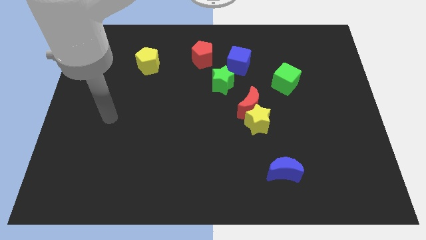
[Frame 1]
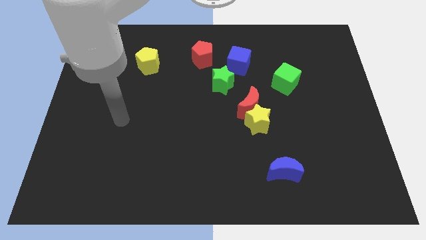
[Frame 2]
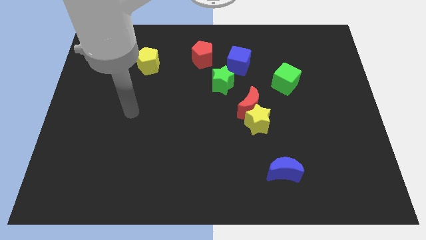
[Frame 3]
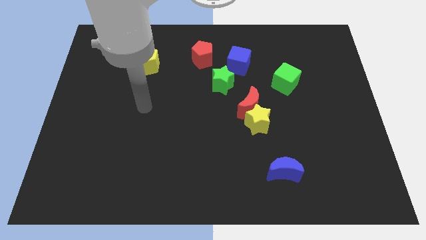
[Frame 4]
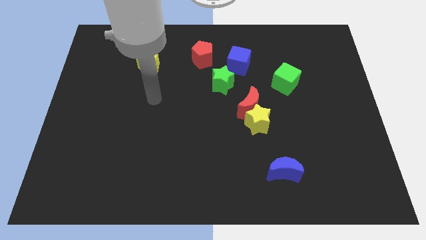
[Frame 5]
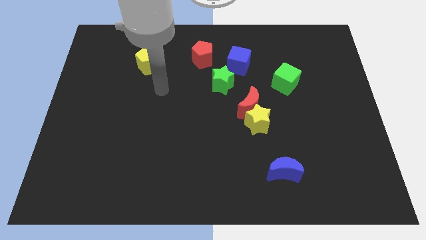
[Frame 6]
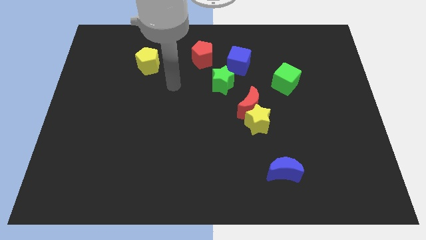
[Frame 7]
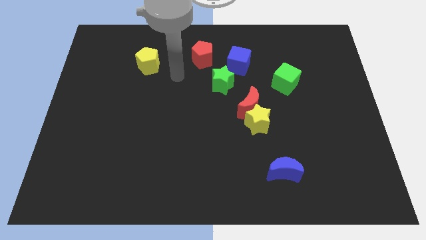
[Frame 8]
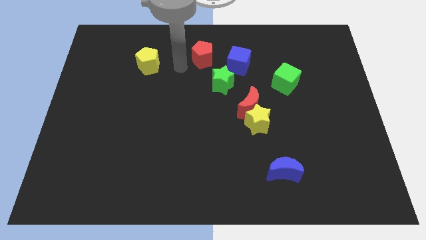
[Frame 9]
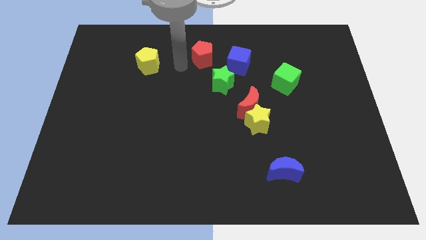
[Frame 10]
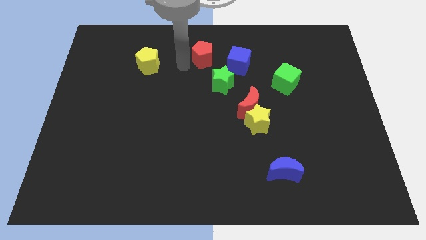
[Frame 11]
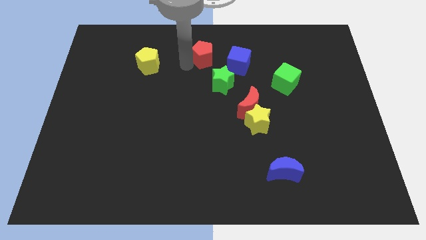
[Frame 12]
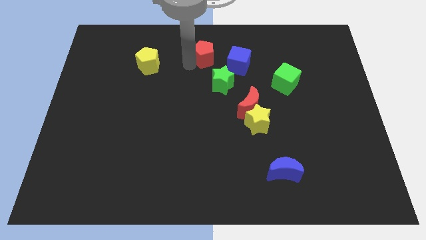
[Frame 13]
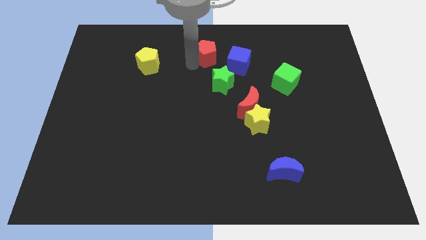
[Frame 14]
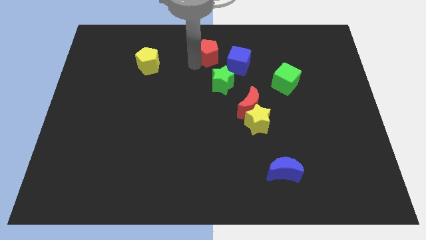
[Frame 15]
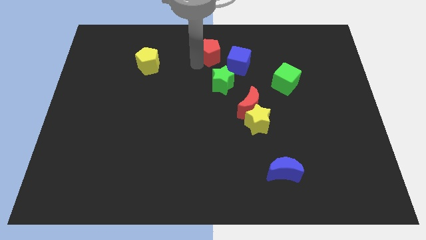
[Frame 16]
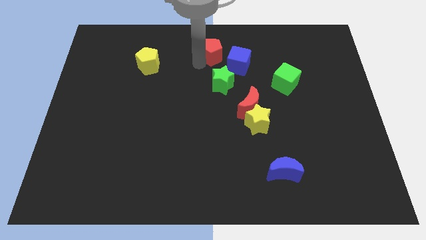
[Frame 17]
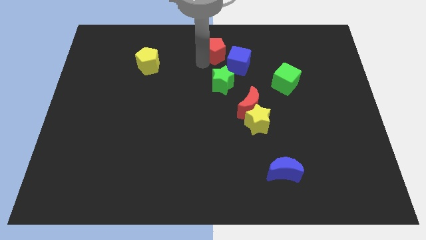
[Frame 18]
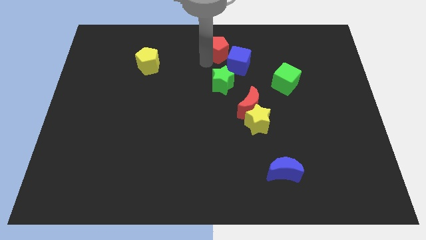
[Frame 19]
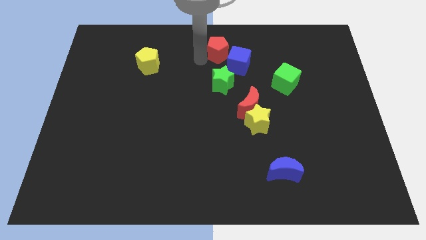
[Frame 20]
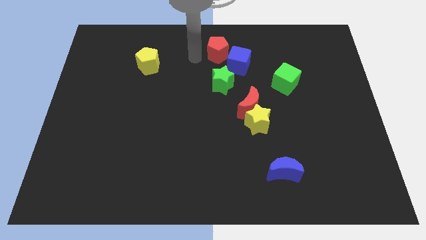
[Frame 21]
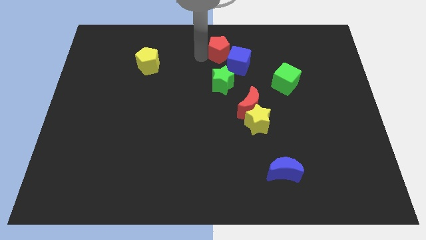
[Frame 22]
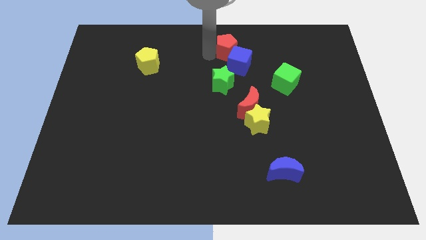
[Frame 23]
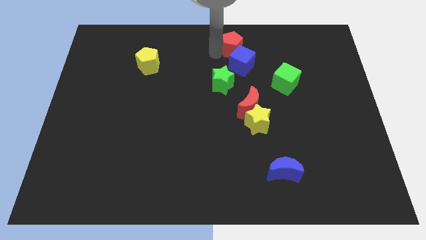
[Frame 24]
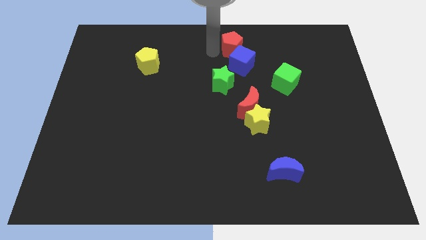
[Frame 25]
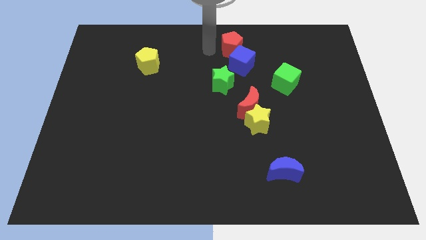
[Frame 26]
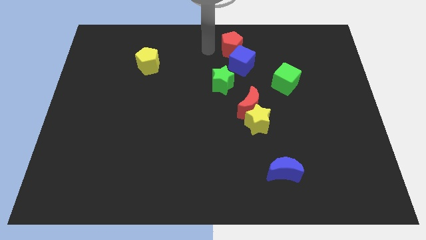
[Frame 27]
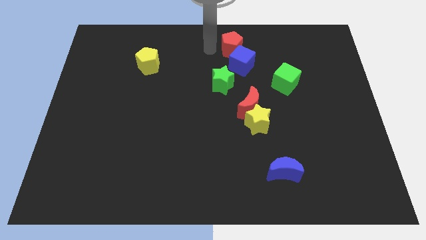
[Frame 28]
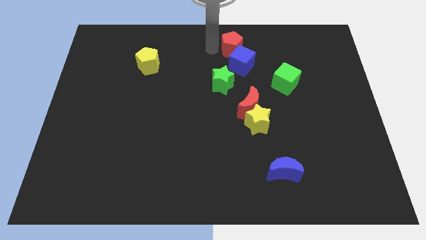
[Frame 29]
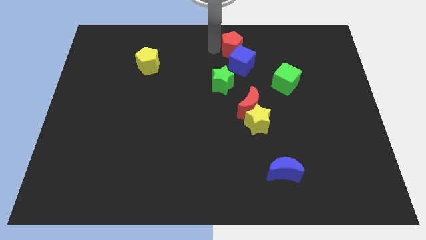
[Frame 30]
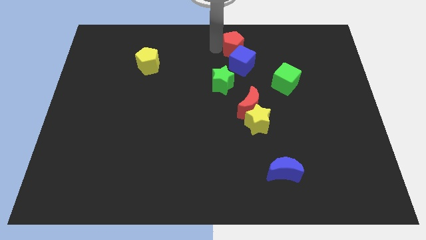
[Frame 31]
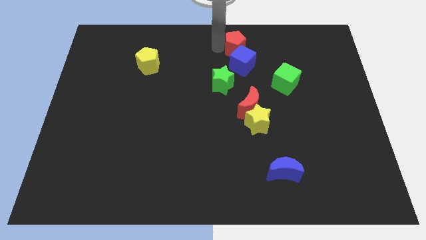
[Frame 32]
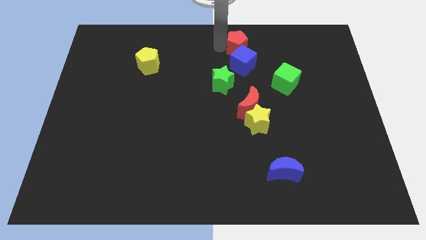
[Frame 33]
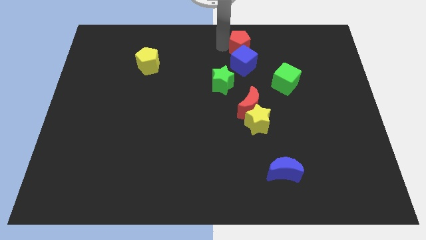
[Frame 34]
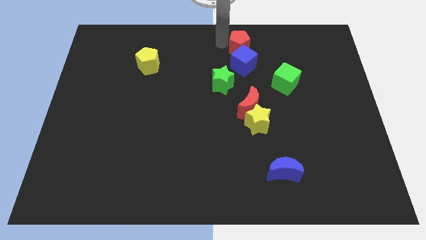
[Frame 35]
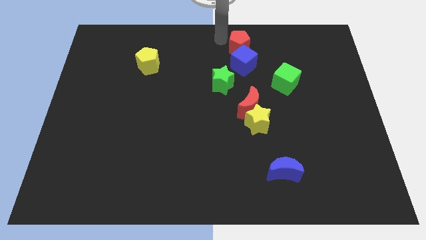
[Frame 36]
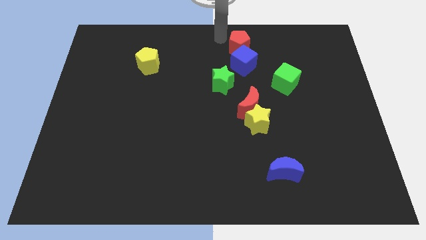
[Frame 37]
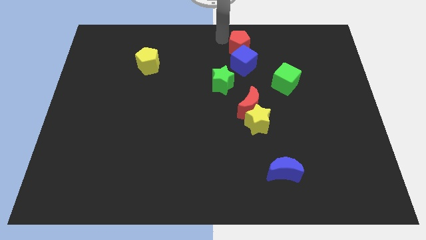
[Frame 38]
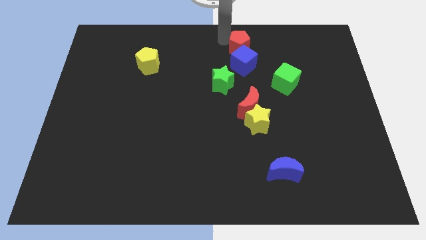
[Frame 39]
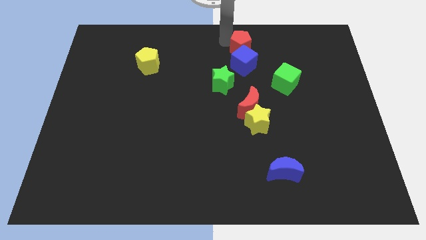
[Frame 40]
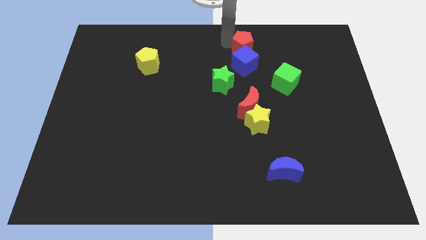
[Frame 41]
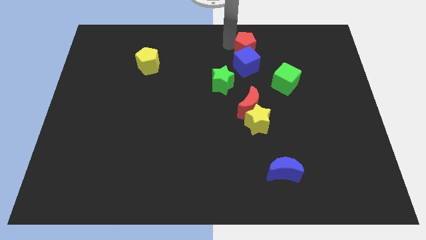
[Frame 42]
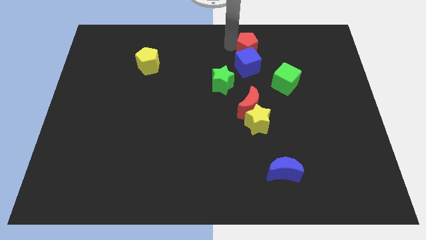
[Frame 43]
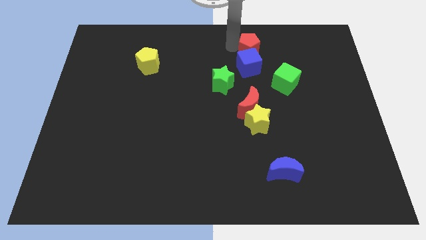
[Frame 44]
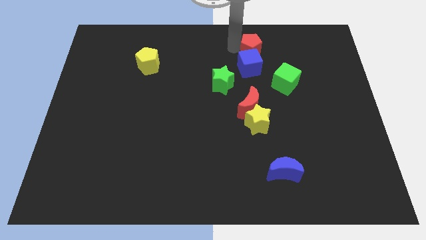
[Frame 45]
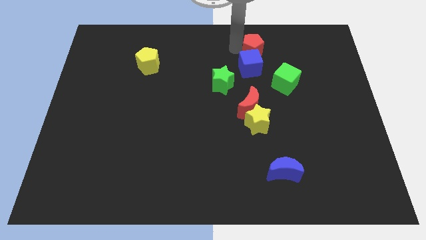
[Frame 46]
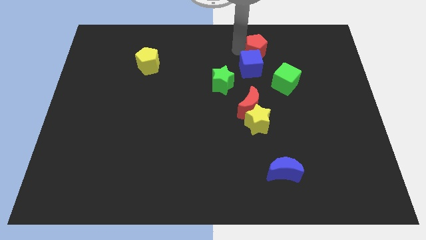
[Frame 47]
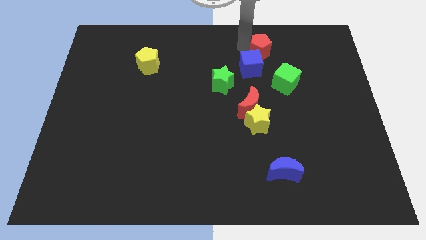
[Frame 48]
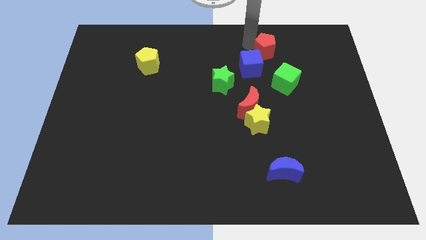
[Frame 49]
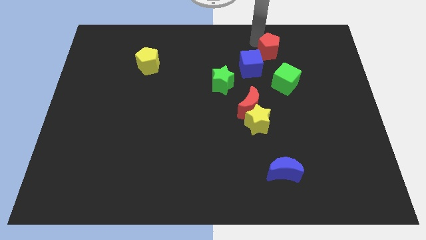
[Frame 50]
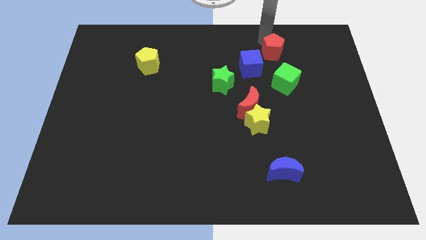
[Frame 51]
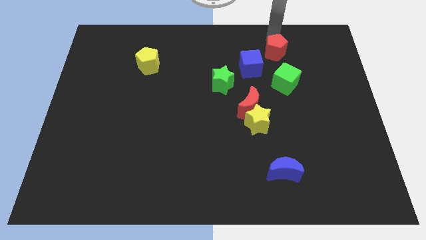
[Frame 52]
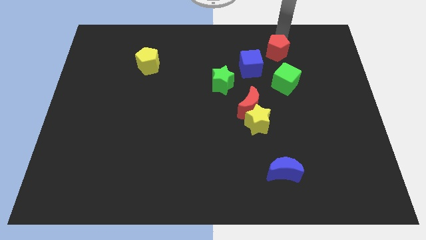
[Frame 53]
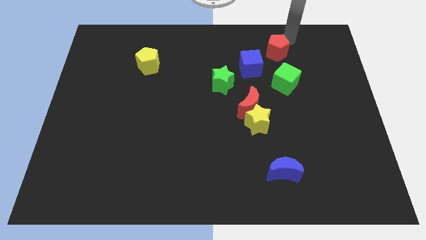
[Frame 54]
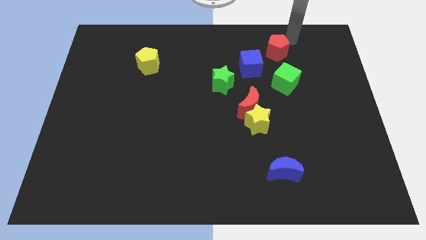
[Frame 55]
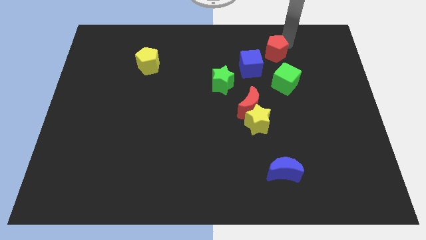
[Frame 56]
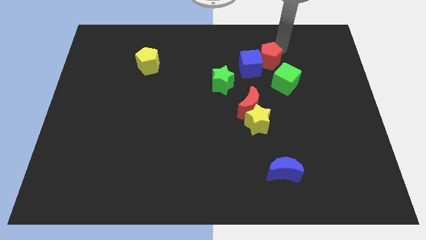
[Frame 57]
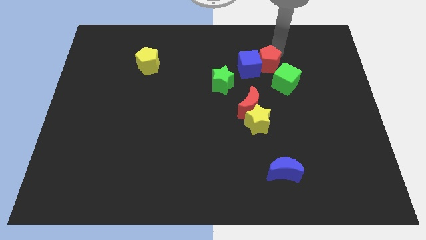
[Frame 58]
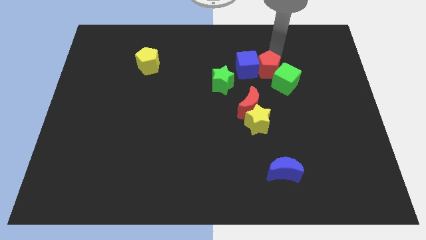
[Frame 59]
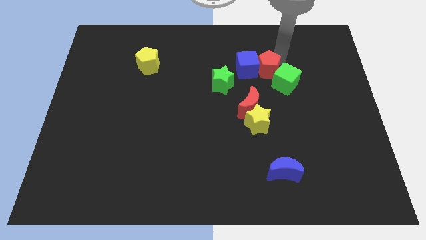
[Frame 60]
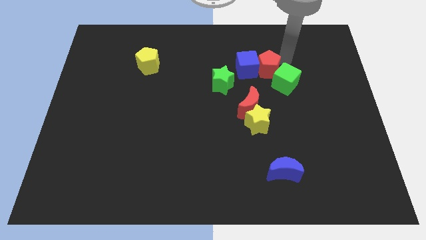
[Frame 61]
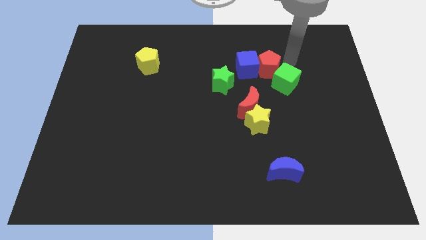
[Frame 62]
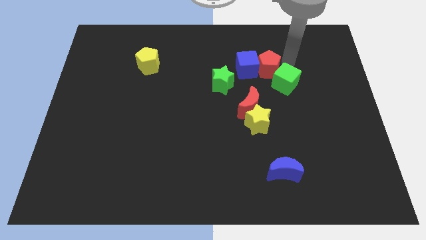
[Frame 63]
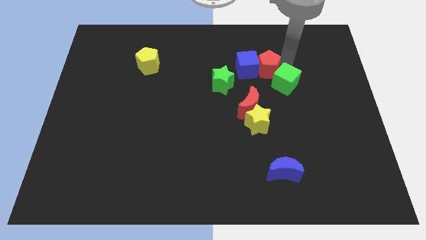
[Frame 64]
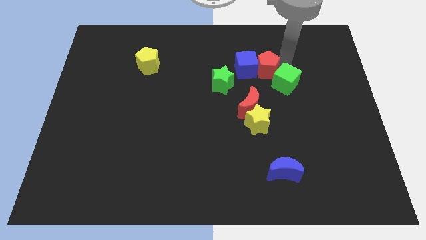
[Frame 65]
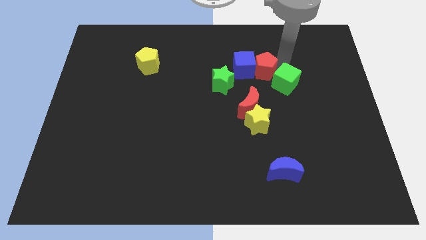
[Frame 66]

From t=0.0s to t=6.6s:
slide the red pentagon above the red moon

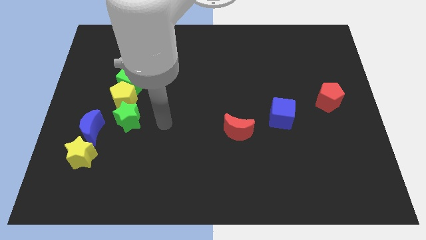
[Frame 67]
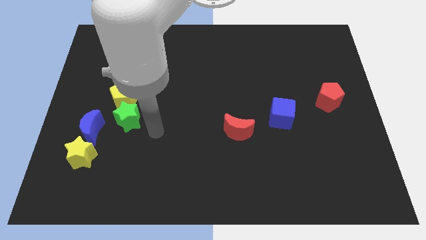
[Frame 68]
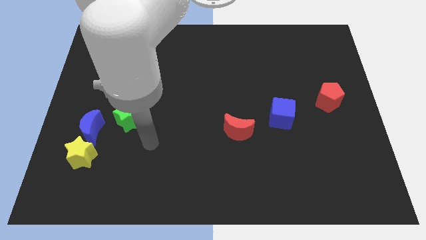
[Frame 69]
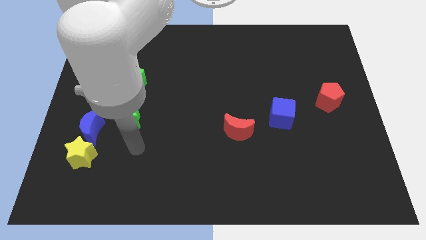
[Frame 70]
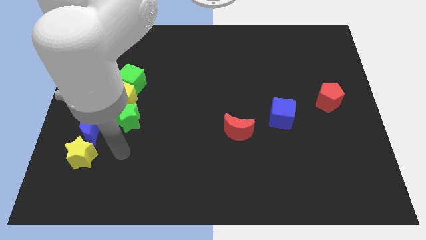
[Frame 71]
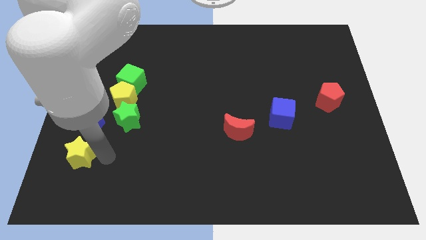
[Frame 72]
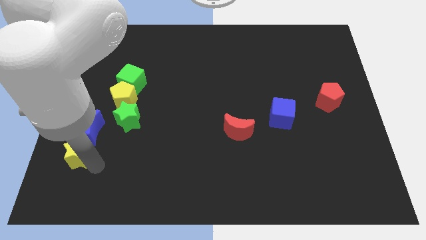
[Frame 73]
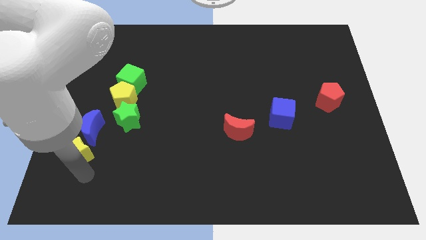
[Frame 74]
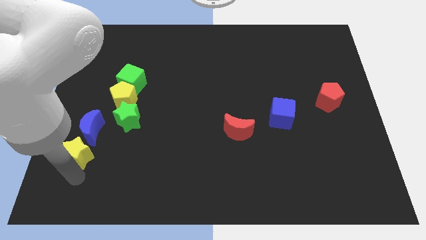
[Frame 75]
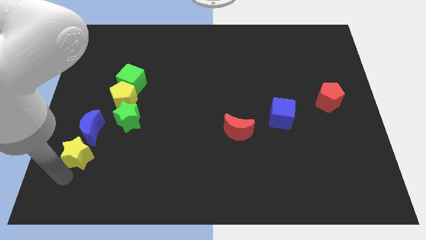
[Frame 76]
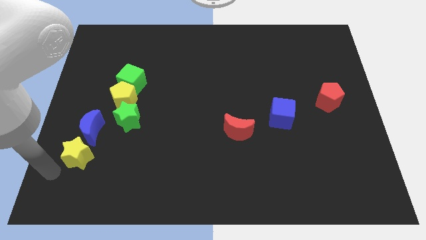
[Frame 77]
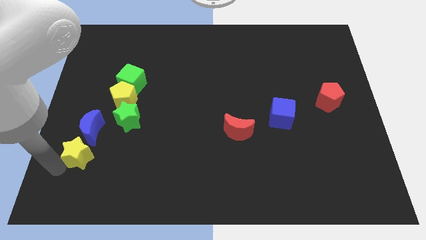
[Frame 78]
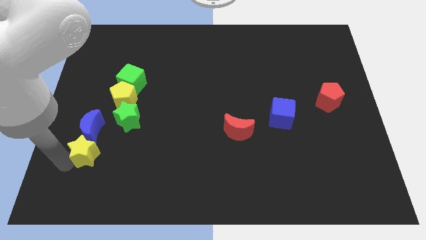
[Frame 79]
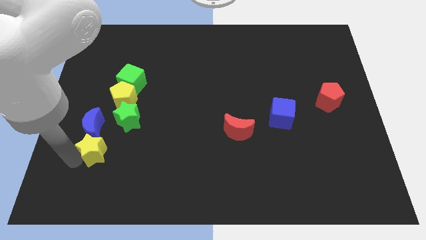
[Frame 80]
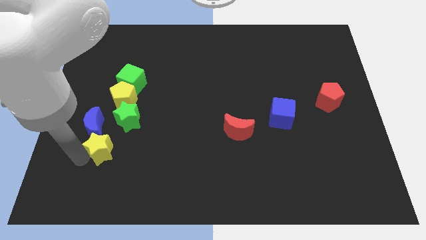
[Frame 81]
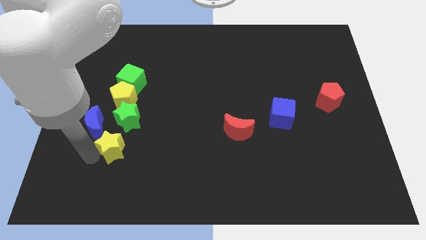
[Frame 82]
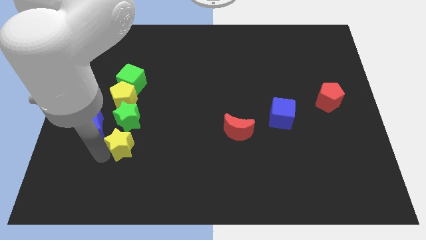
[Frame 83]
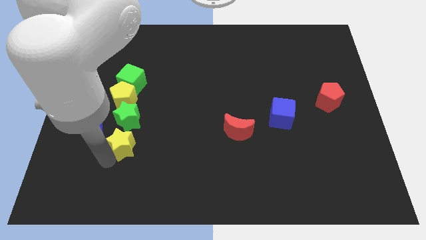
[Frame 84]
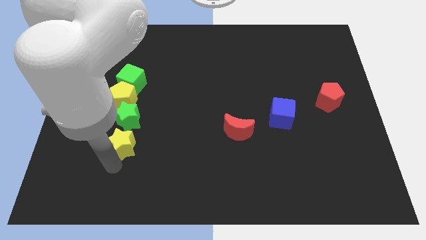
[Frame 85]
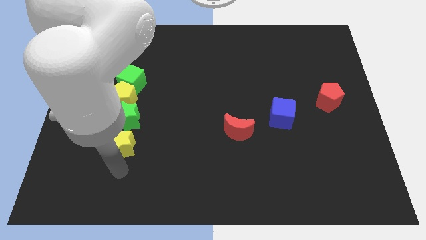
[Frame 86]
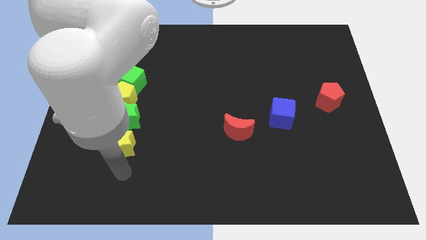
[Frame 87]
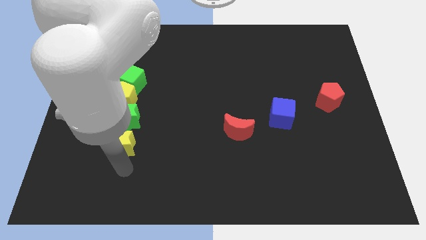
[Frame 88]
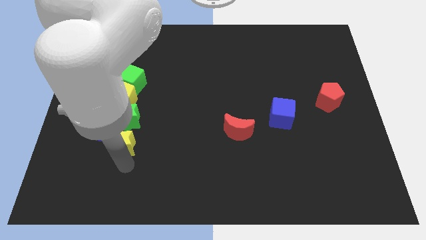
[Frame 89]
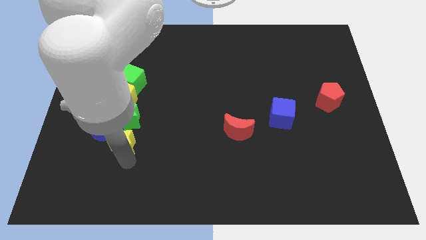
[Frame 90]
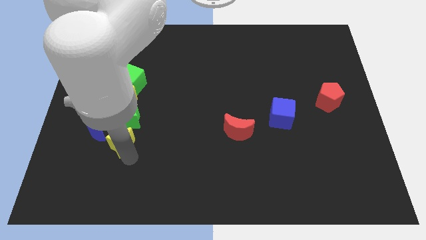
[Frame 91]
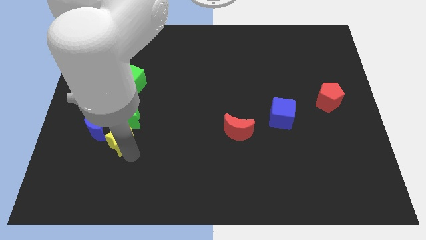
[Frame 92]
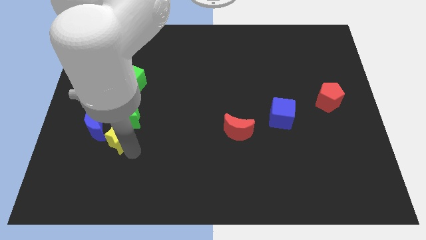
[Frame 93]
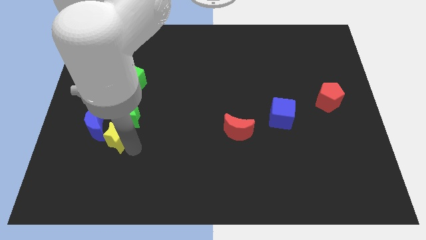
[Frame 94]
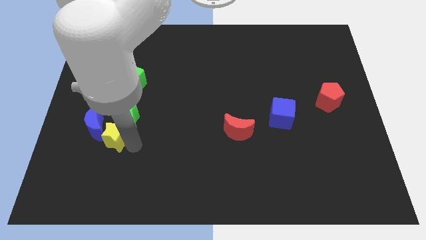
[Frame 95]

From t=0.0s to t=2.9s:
slide the yellow star to the bottom of the green cube
